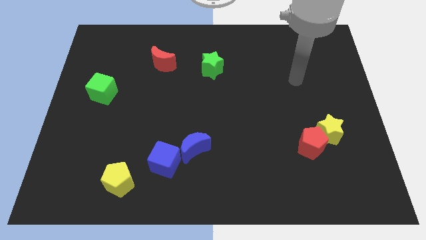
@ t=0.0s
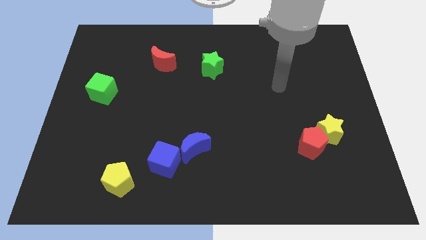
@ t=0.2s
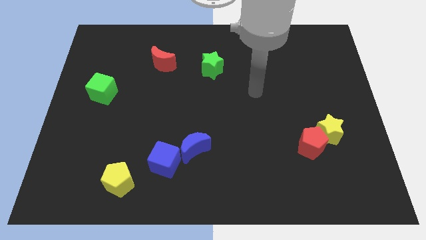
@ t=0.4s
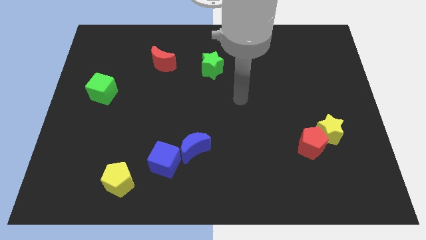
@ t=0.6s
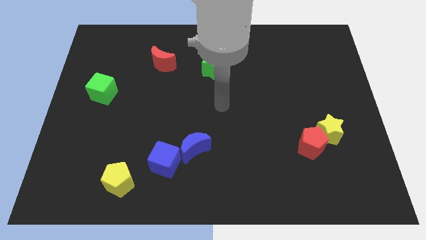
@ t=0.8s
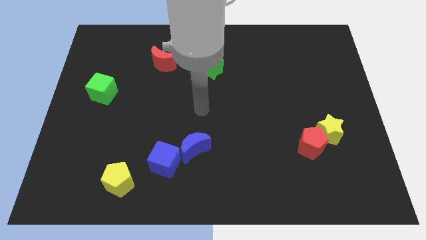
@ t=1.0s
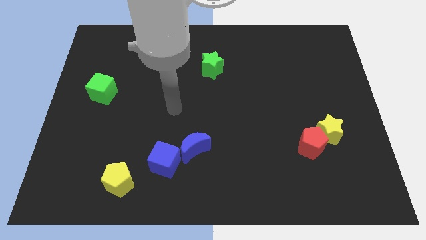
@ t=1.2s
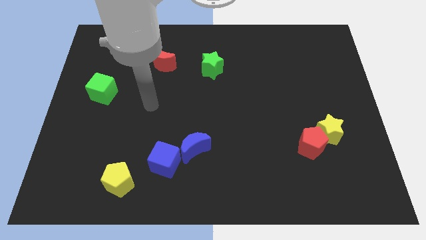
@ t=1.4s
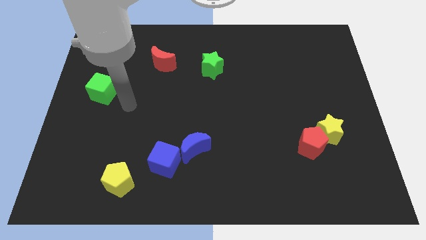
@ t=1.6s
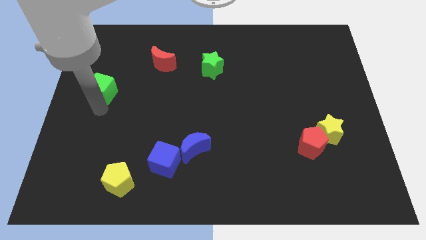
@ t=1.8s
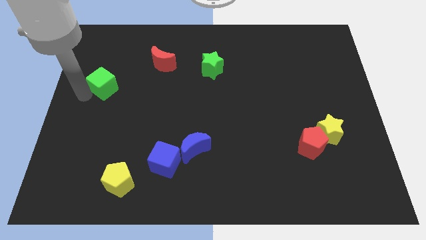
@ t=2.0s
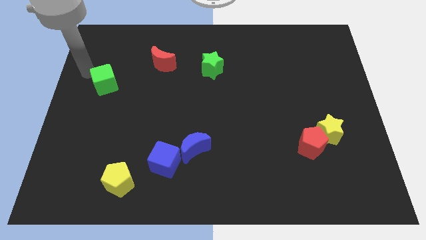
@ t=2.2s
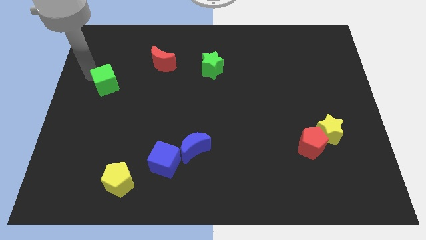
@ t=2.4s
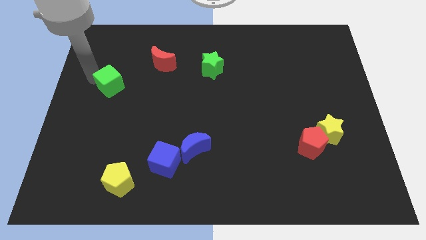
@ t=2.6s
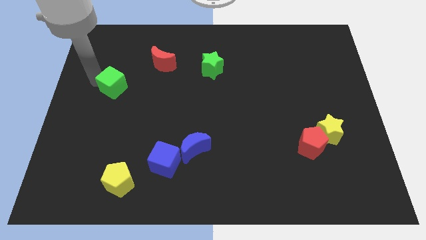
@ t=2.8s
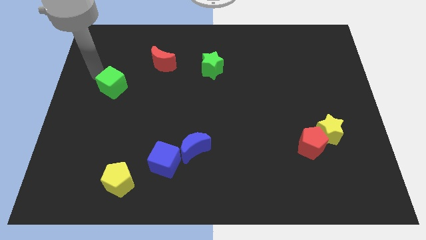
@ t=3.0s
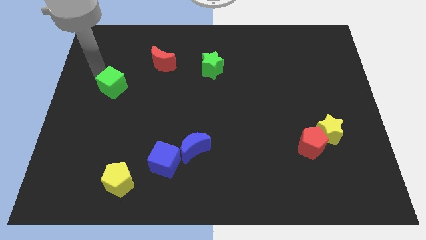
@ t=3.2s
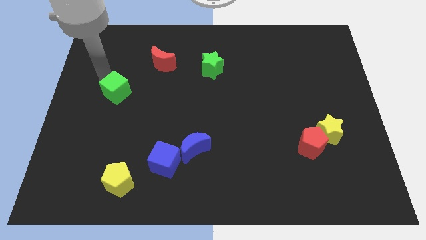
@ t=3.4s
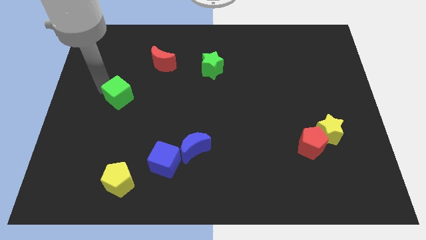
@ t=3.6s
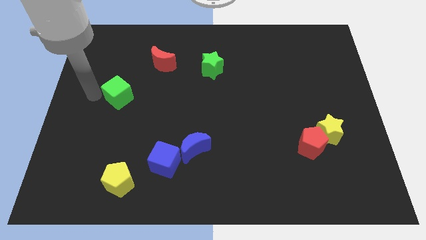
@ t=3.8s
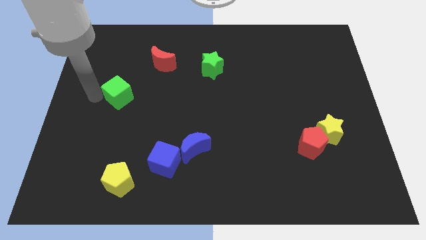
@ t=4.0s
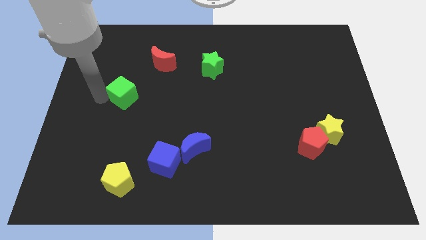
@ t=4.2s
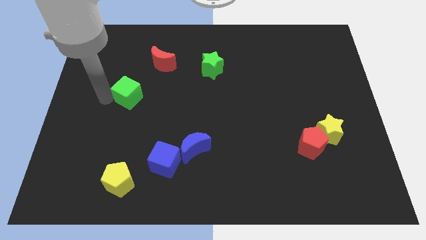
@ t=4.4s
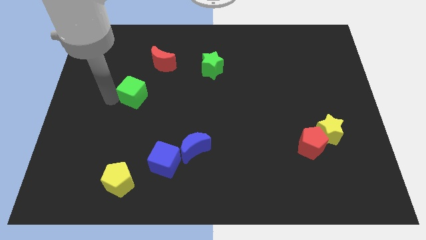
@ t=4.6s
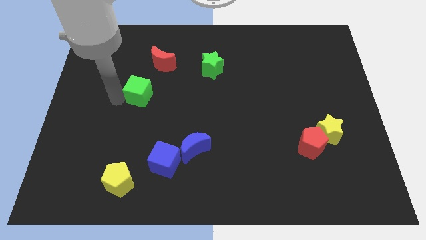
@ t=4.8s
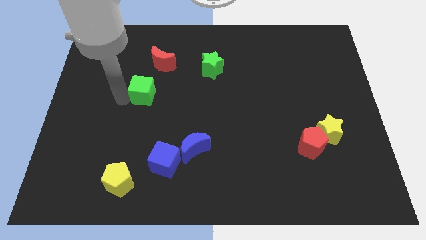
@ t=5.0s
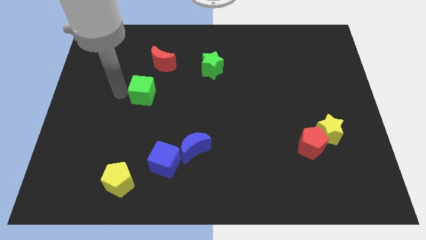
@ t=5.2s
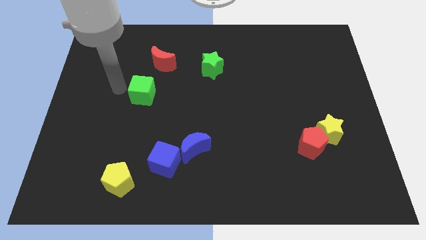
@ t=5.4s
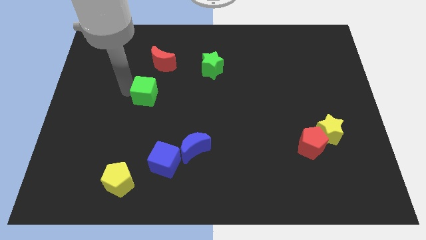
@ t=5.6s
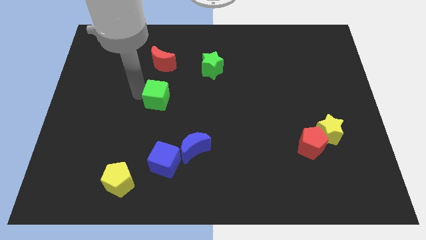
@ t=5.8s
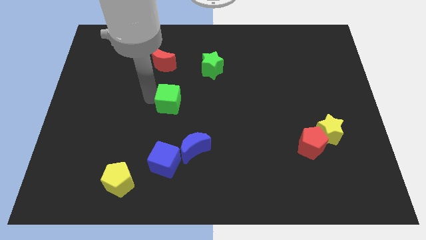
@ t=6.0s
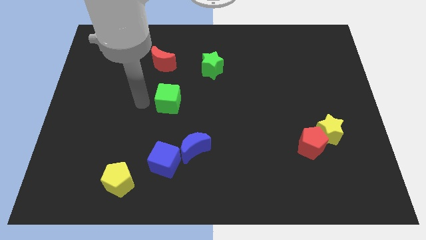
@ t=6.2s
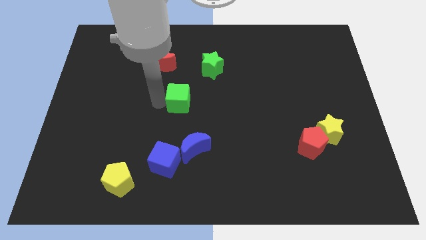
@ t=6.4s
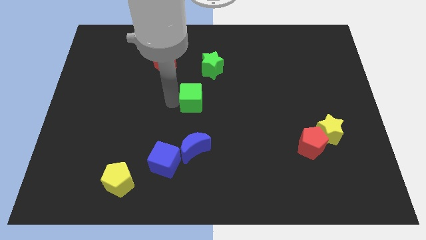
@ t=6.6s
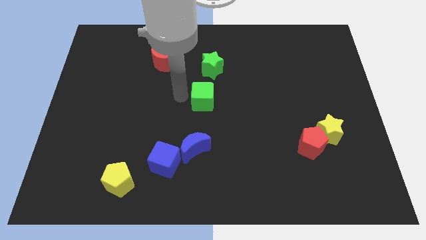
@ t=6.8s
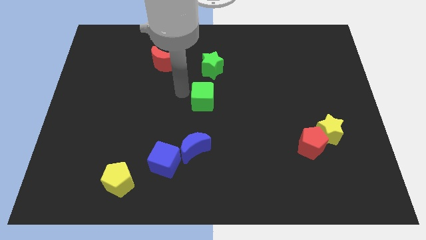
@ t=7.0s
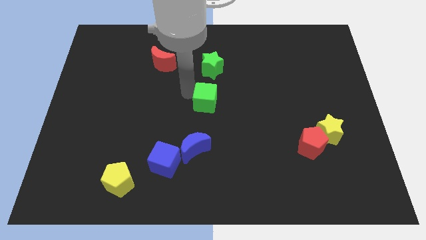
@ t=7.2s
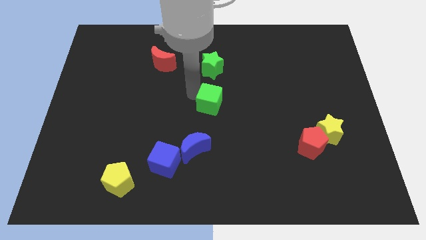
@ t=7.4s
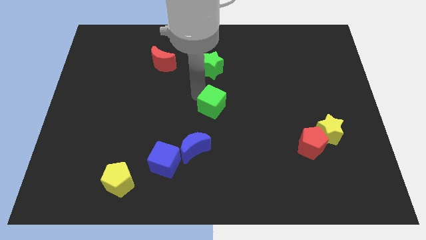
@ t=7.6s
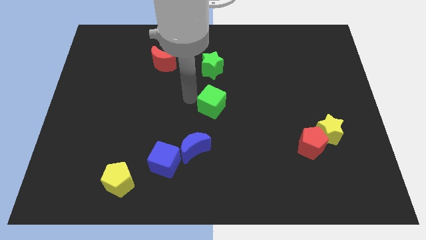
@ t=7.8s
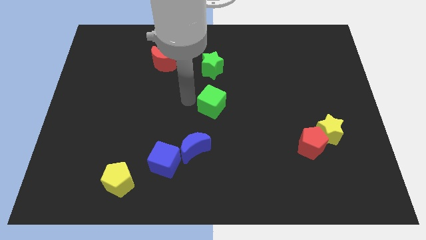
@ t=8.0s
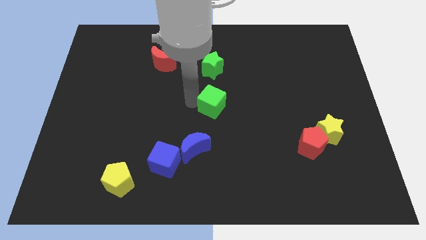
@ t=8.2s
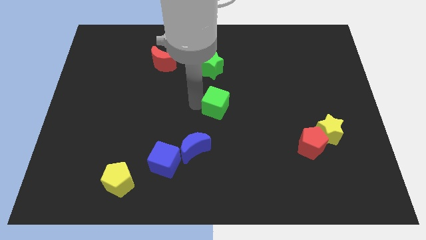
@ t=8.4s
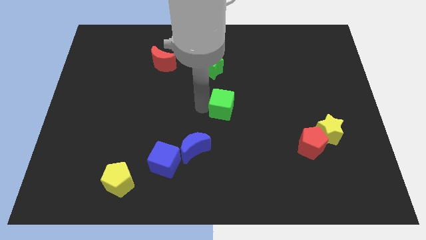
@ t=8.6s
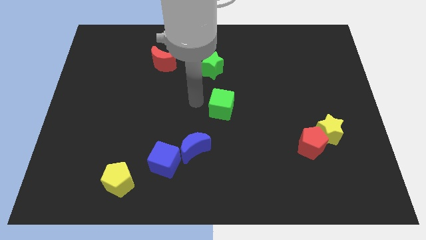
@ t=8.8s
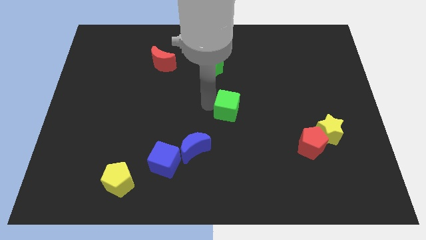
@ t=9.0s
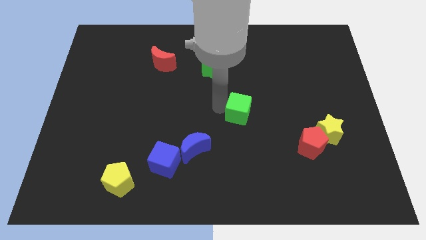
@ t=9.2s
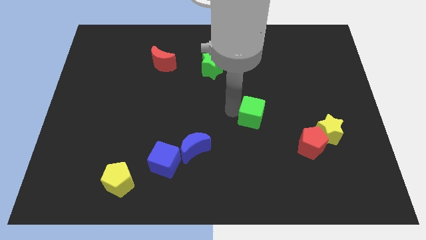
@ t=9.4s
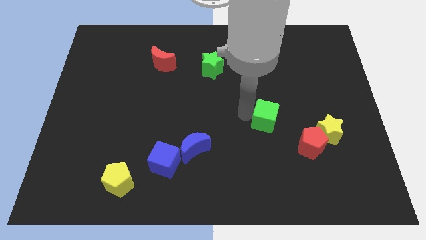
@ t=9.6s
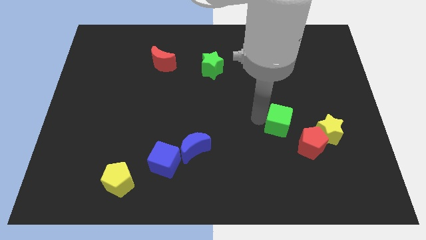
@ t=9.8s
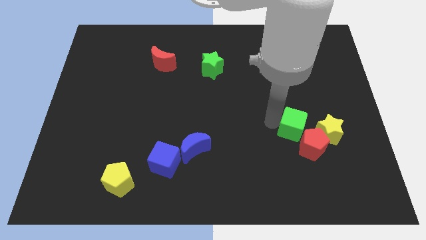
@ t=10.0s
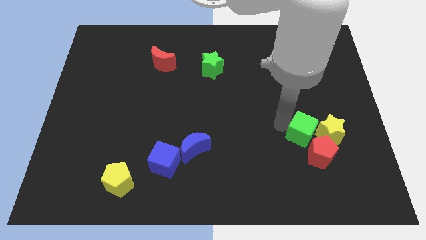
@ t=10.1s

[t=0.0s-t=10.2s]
move the green cube next to the yellow star
